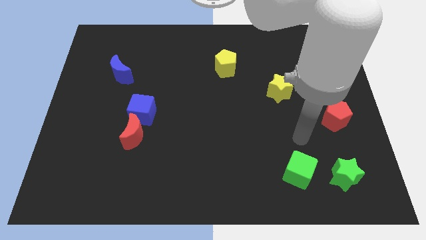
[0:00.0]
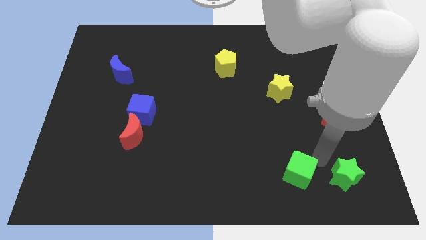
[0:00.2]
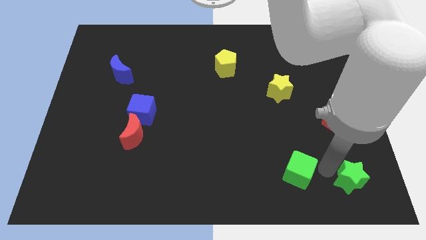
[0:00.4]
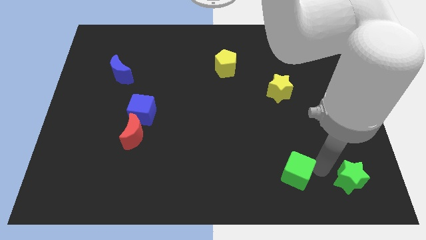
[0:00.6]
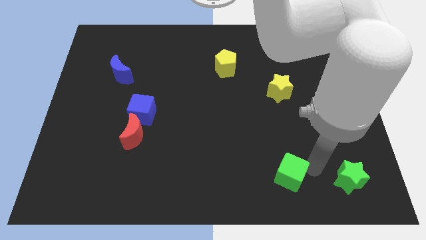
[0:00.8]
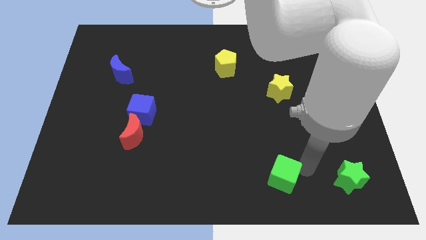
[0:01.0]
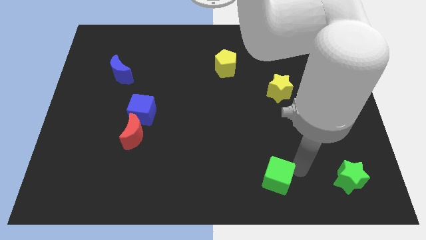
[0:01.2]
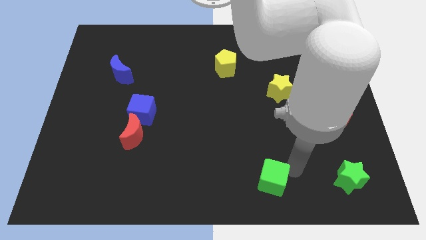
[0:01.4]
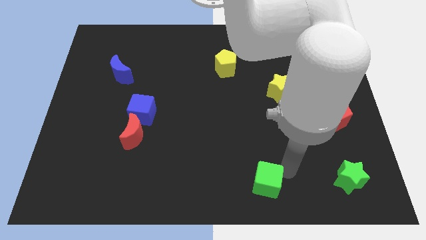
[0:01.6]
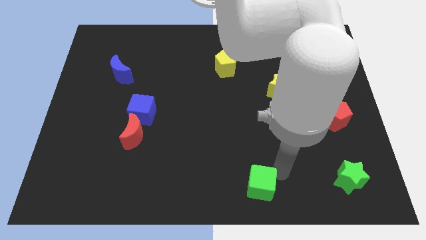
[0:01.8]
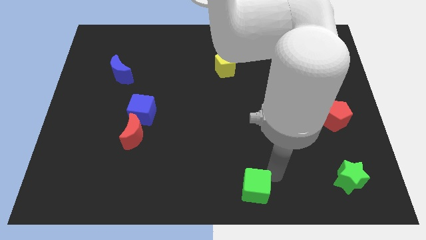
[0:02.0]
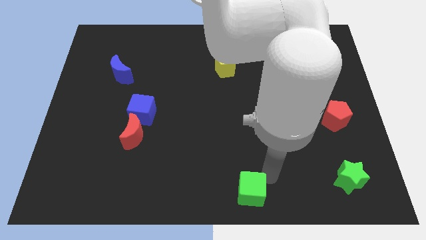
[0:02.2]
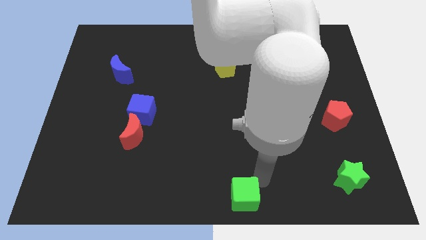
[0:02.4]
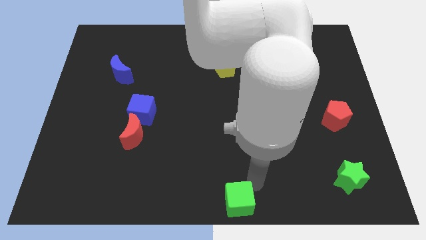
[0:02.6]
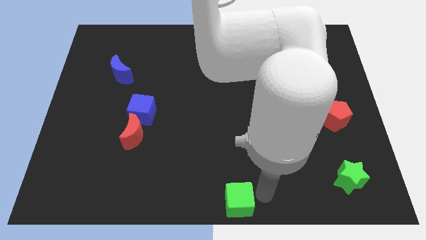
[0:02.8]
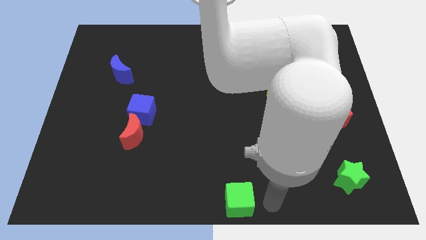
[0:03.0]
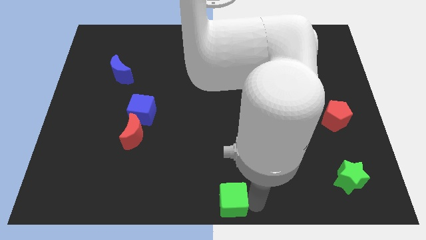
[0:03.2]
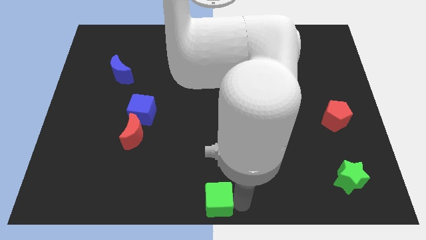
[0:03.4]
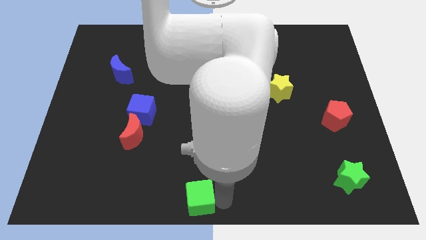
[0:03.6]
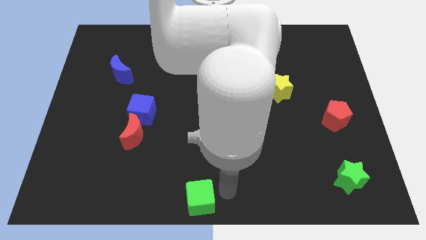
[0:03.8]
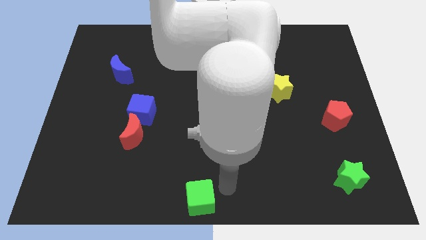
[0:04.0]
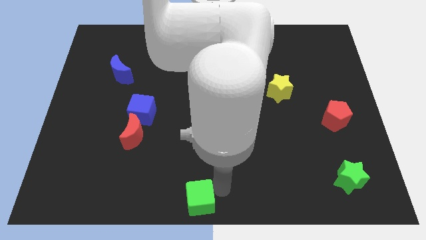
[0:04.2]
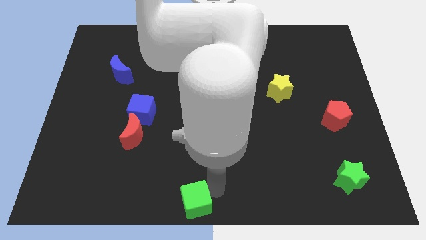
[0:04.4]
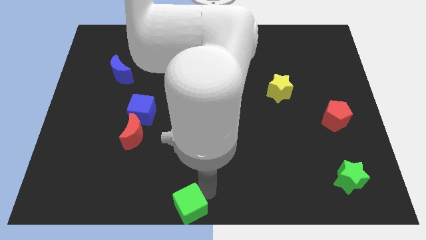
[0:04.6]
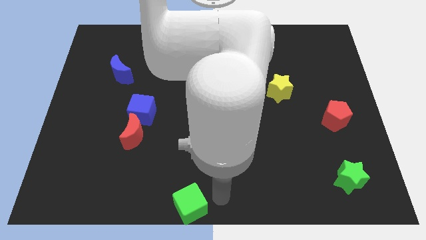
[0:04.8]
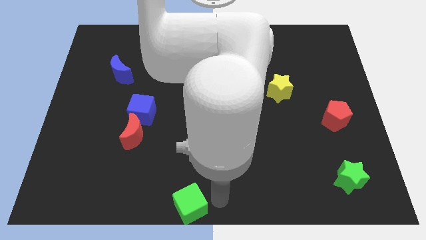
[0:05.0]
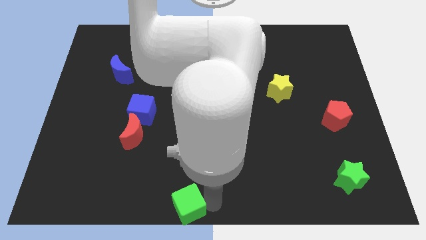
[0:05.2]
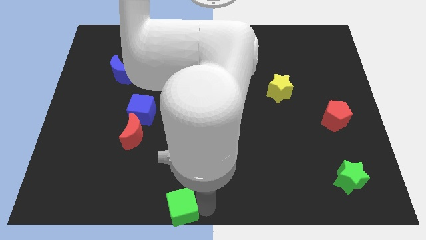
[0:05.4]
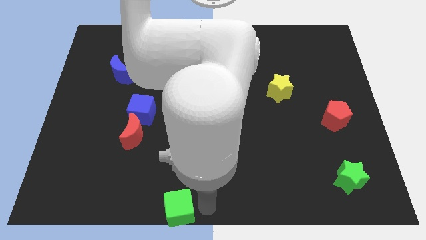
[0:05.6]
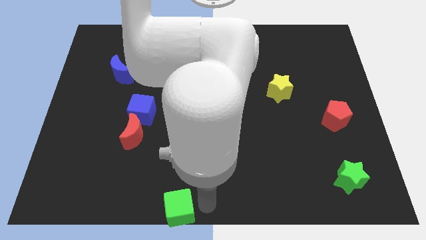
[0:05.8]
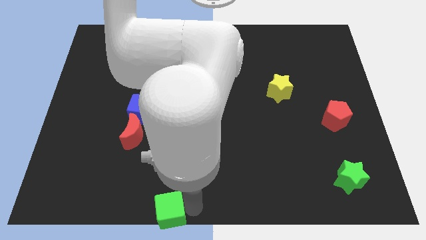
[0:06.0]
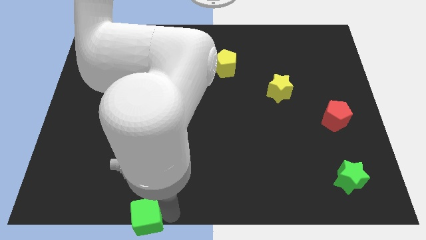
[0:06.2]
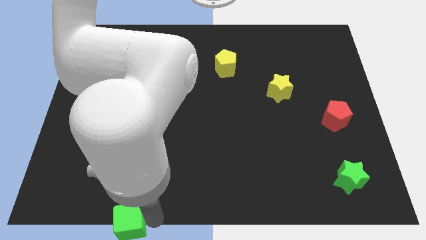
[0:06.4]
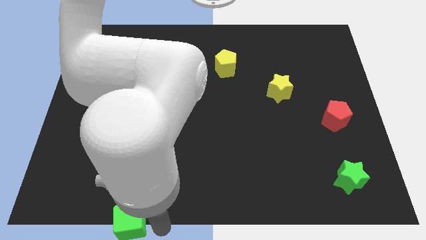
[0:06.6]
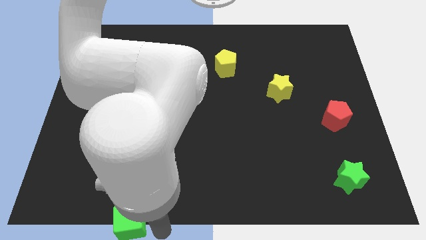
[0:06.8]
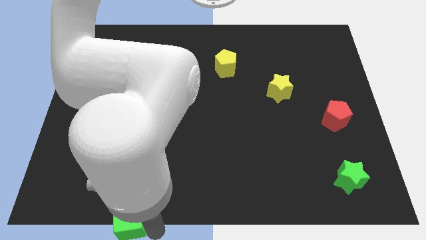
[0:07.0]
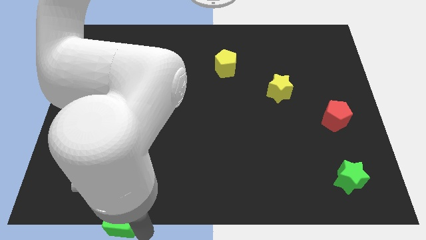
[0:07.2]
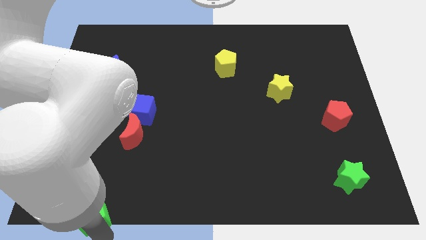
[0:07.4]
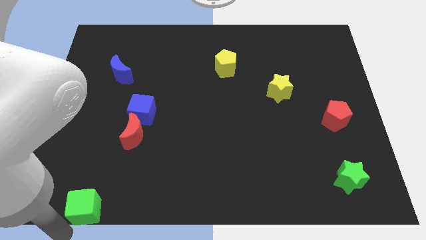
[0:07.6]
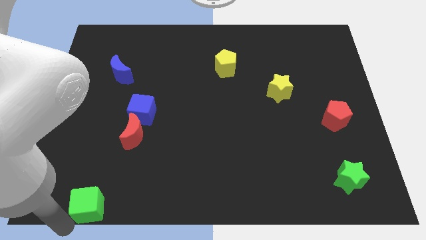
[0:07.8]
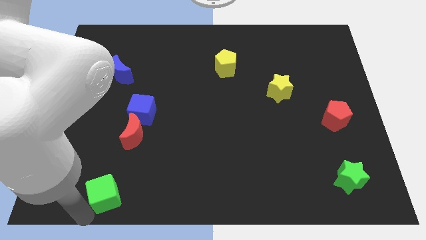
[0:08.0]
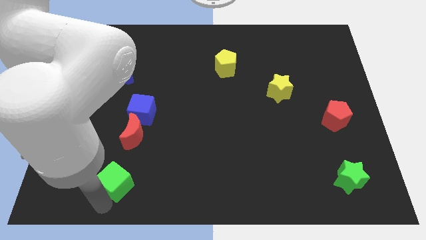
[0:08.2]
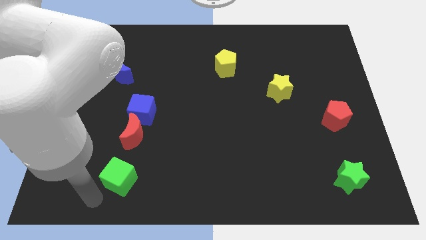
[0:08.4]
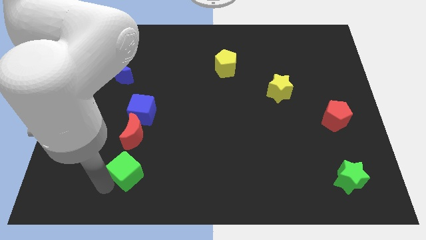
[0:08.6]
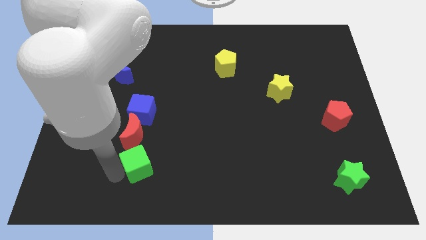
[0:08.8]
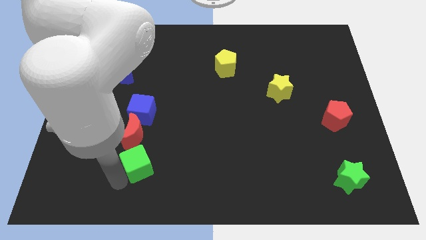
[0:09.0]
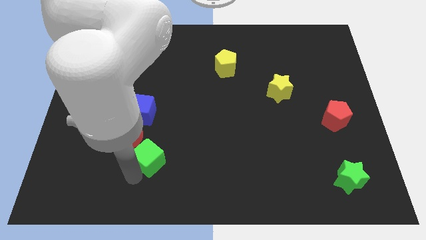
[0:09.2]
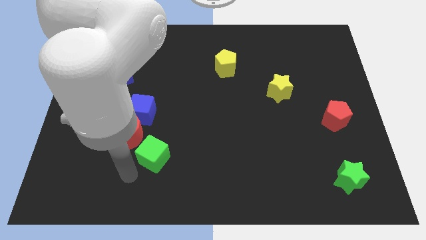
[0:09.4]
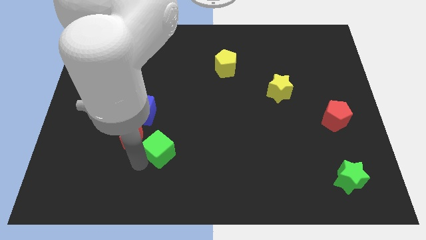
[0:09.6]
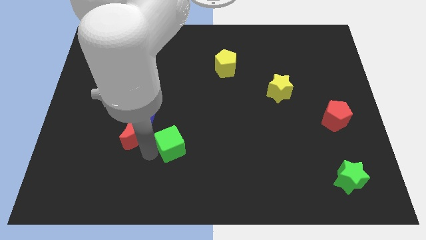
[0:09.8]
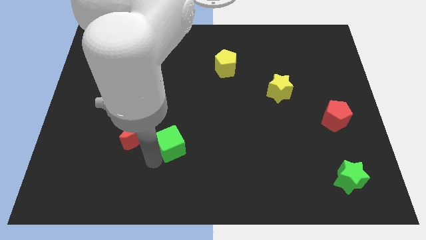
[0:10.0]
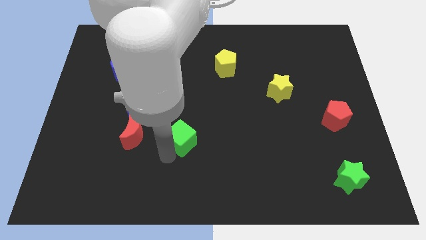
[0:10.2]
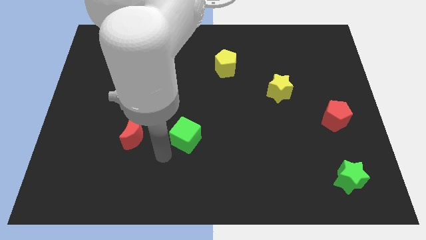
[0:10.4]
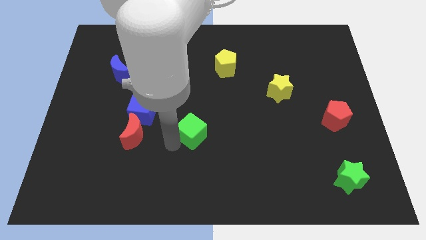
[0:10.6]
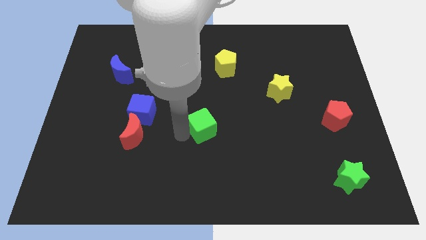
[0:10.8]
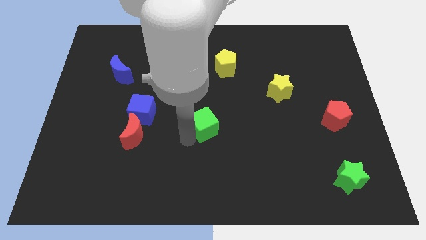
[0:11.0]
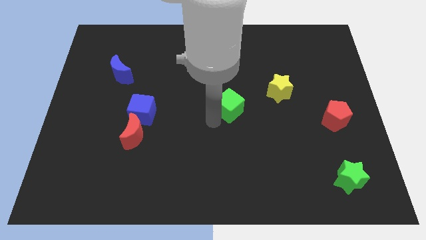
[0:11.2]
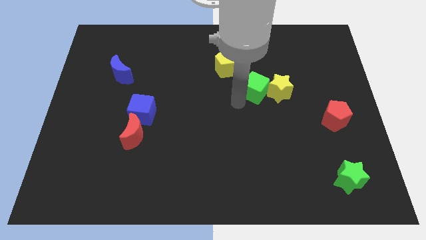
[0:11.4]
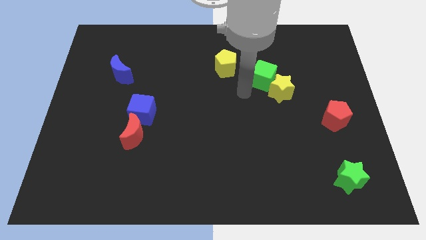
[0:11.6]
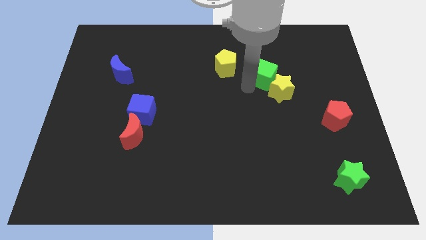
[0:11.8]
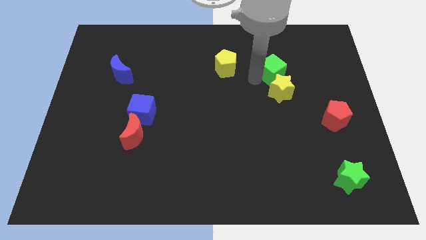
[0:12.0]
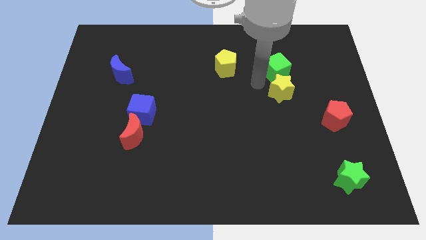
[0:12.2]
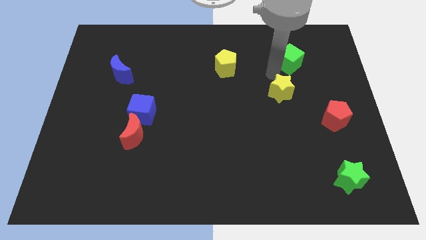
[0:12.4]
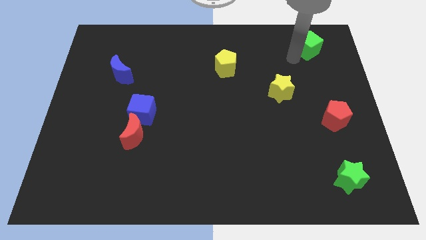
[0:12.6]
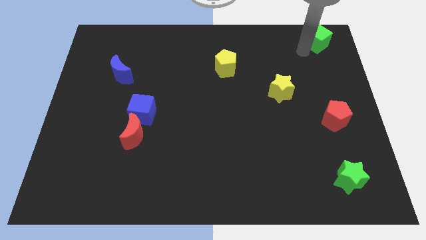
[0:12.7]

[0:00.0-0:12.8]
slide the green cube to the upper right corner
